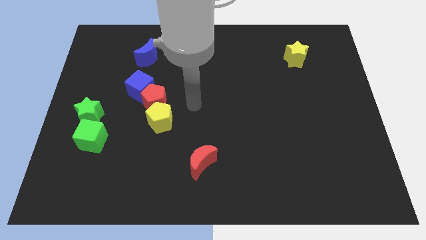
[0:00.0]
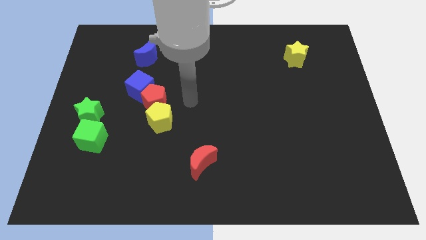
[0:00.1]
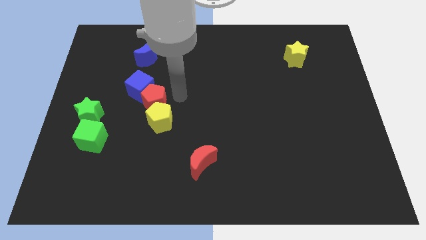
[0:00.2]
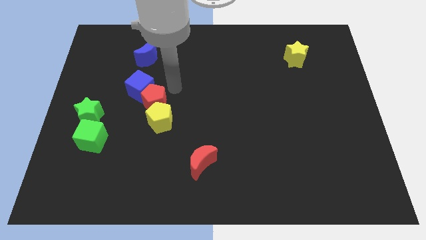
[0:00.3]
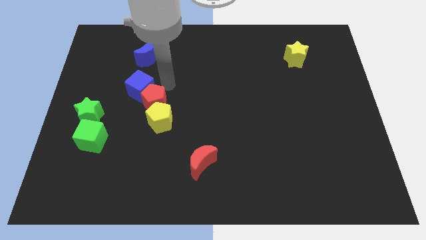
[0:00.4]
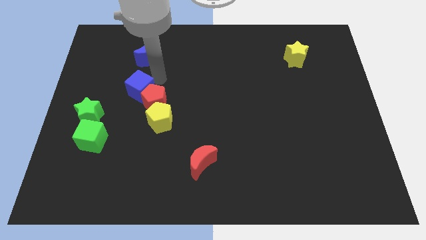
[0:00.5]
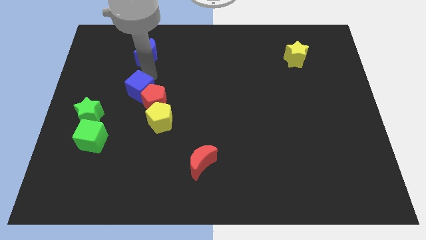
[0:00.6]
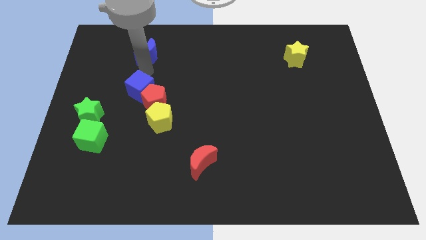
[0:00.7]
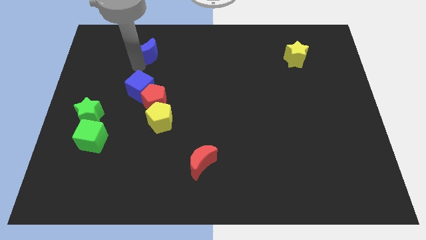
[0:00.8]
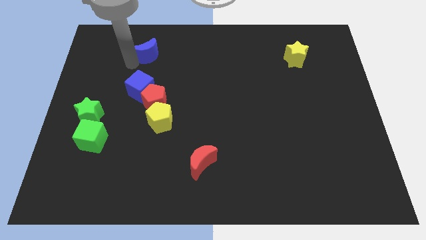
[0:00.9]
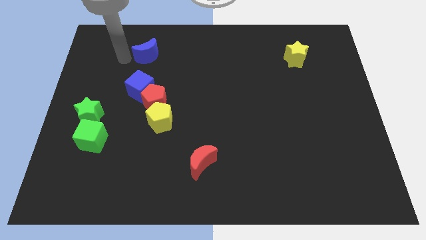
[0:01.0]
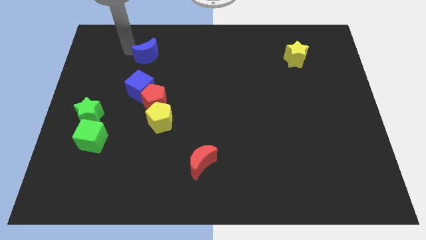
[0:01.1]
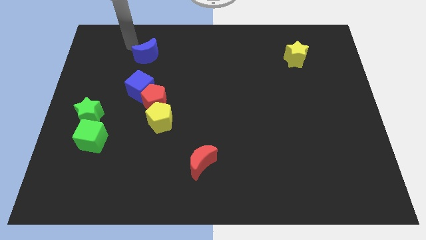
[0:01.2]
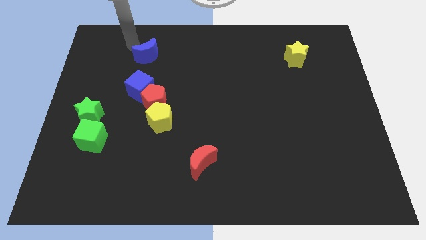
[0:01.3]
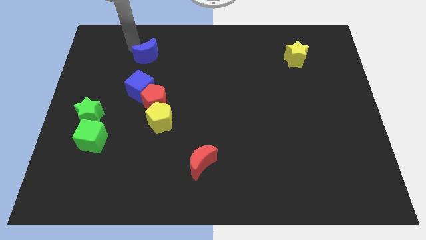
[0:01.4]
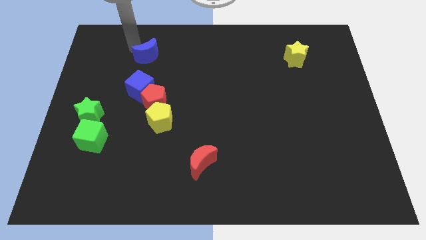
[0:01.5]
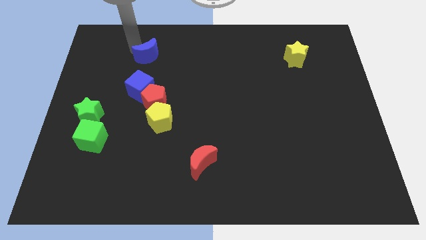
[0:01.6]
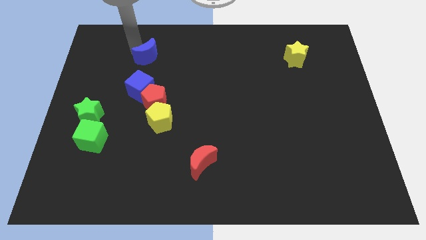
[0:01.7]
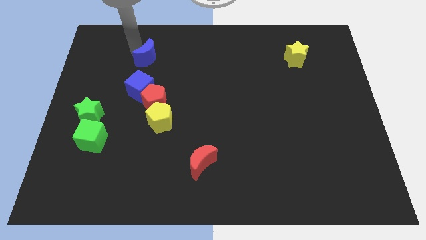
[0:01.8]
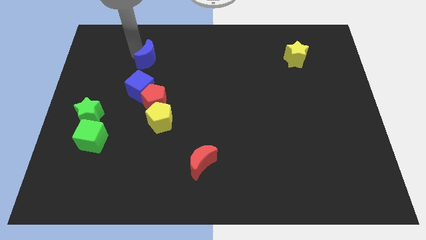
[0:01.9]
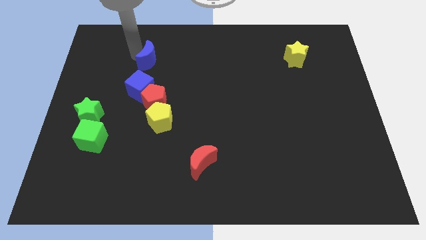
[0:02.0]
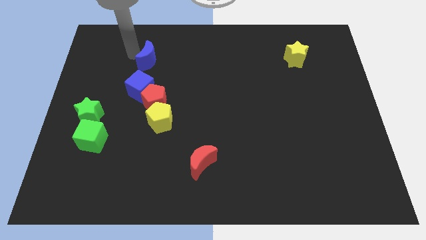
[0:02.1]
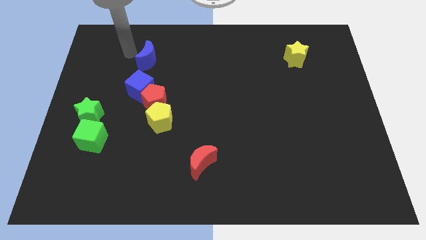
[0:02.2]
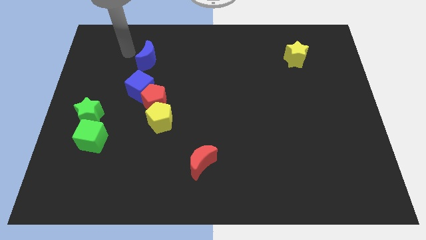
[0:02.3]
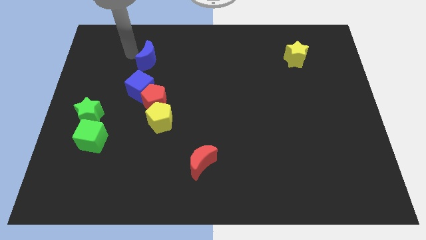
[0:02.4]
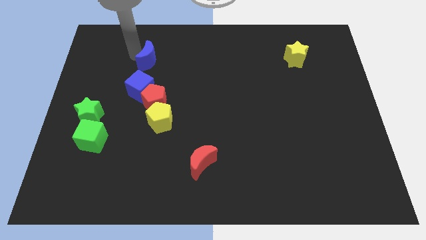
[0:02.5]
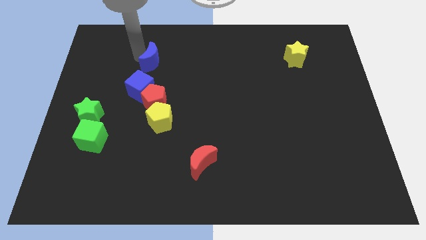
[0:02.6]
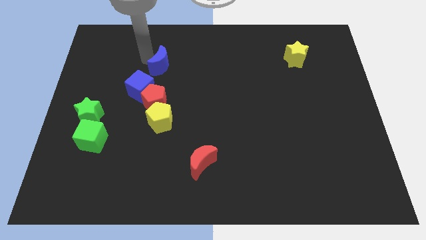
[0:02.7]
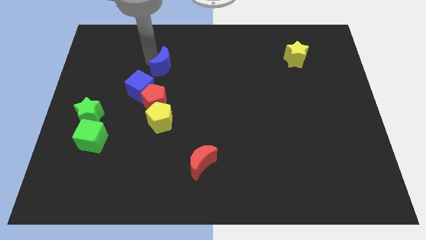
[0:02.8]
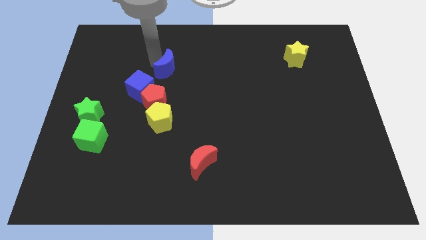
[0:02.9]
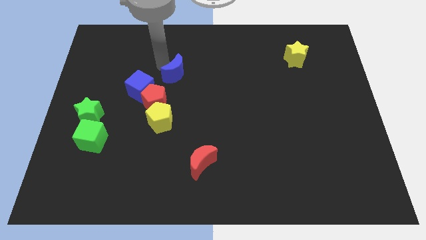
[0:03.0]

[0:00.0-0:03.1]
move the blue moon a bit diagonally down and right

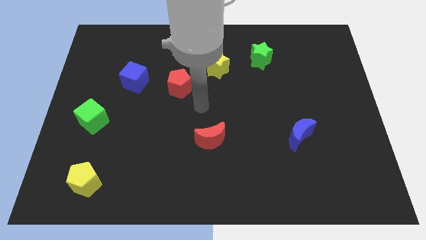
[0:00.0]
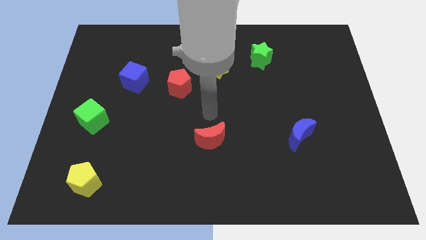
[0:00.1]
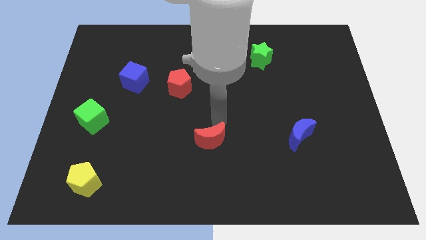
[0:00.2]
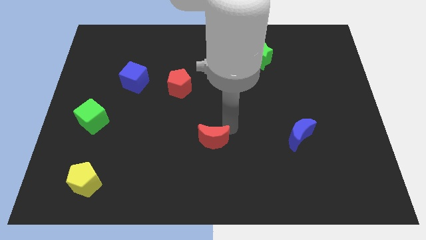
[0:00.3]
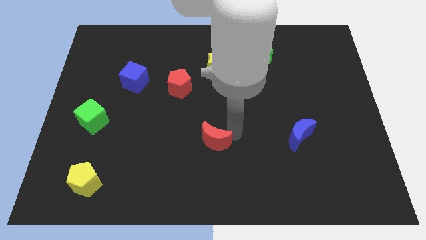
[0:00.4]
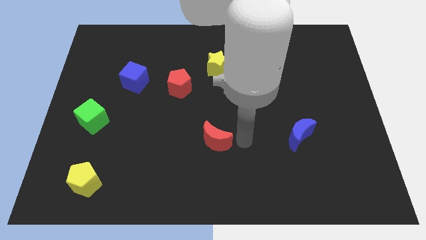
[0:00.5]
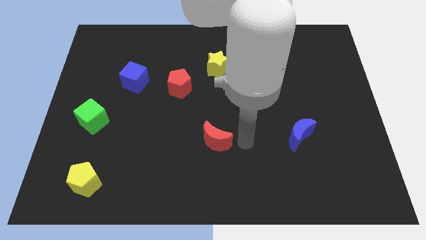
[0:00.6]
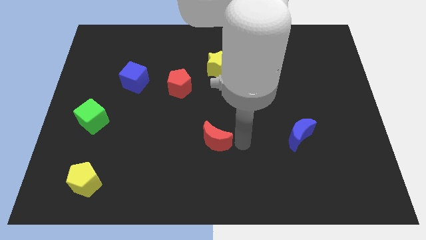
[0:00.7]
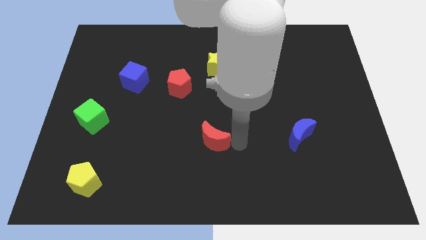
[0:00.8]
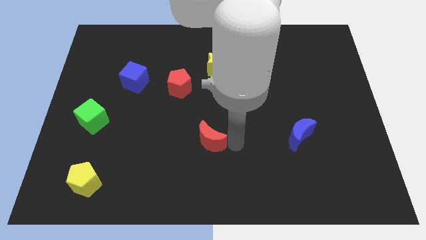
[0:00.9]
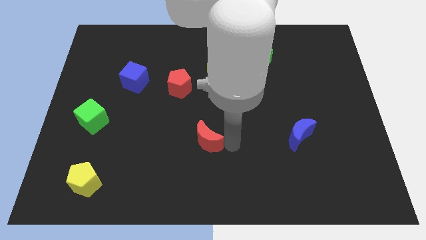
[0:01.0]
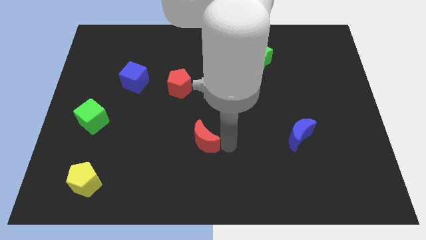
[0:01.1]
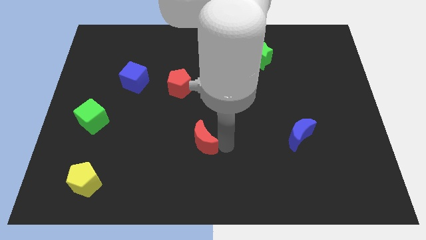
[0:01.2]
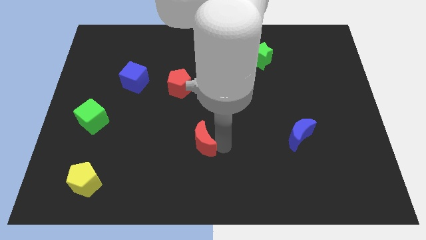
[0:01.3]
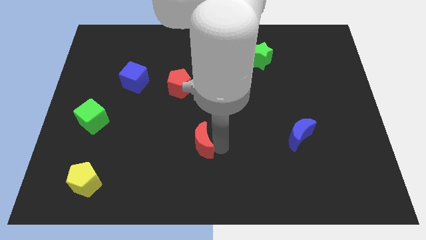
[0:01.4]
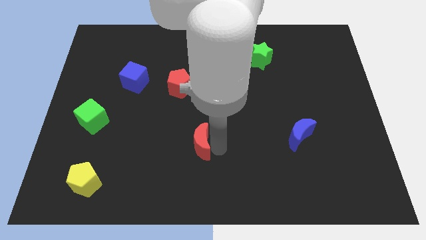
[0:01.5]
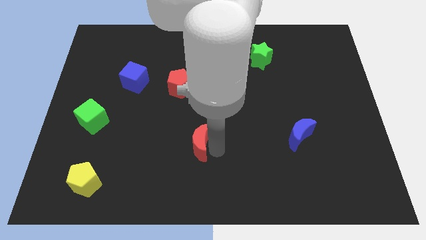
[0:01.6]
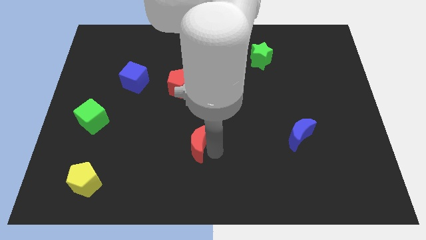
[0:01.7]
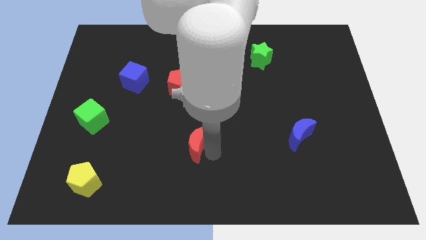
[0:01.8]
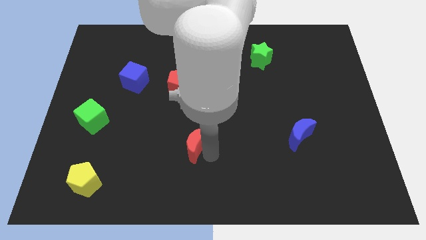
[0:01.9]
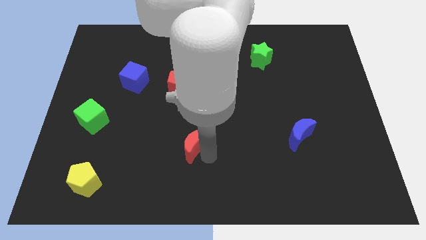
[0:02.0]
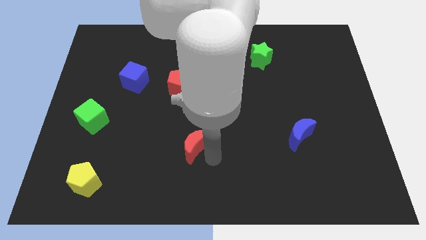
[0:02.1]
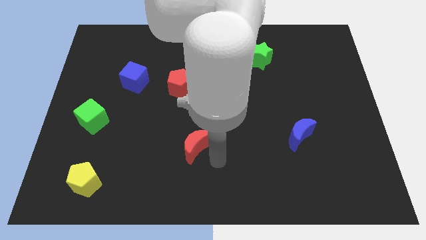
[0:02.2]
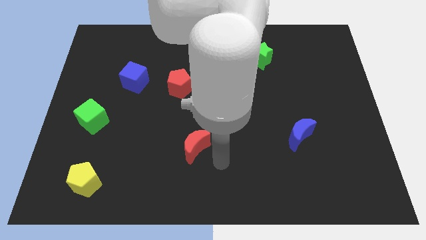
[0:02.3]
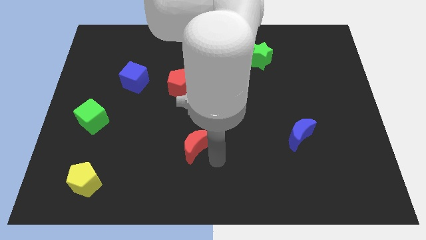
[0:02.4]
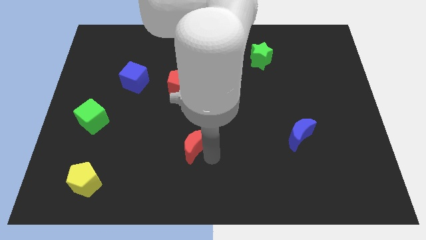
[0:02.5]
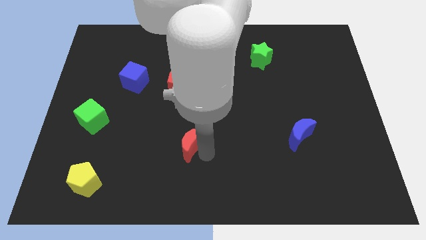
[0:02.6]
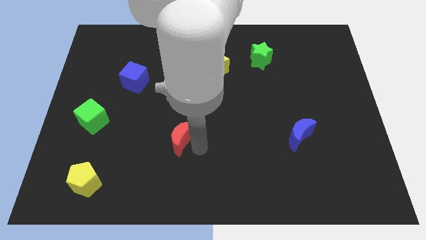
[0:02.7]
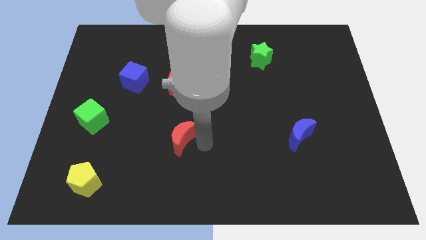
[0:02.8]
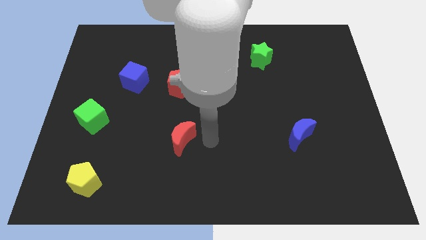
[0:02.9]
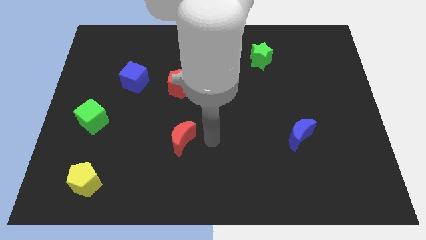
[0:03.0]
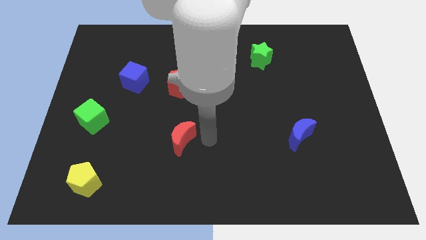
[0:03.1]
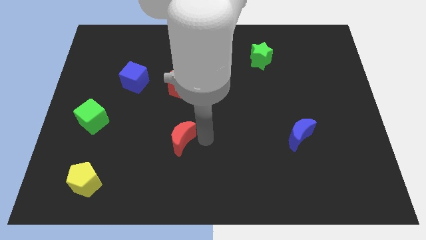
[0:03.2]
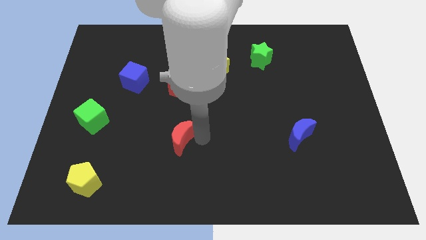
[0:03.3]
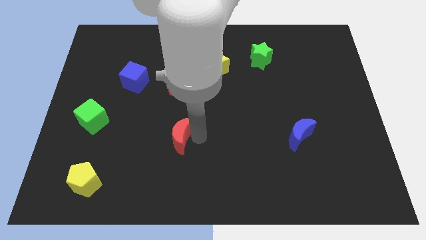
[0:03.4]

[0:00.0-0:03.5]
slide the red moon to the left somewhat

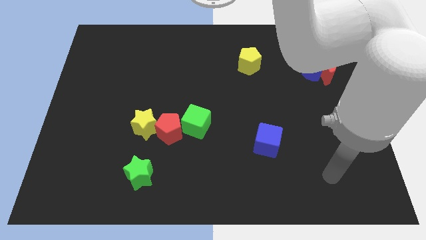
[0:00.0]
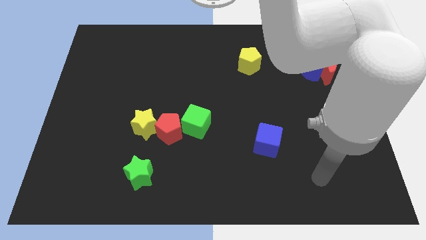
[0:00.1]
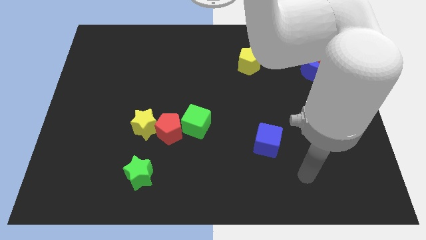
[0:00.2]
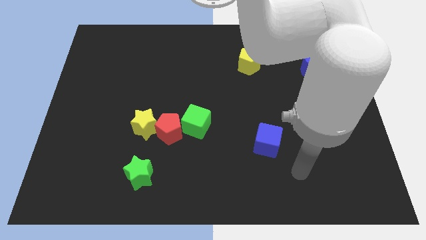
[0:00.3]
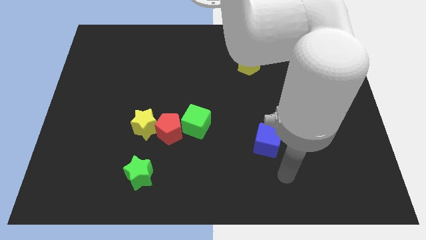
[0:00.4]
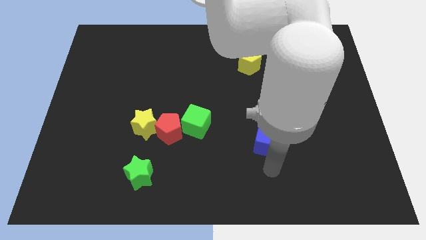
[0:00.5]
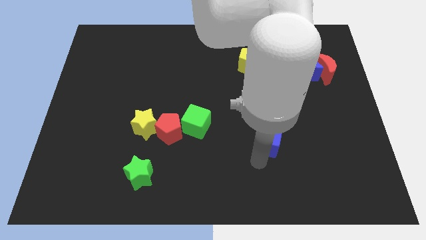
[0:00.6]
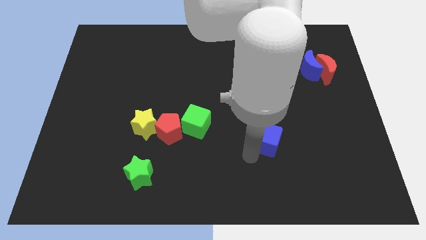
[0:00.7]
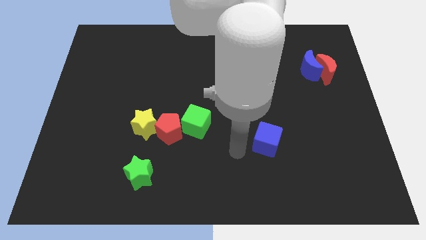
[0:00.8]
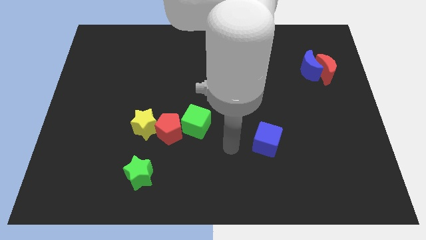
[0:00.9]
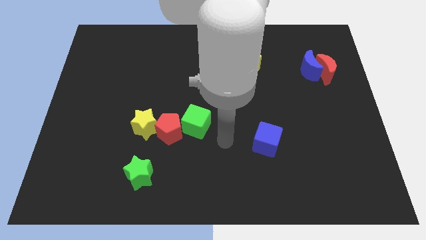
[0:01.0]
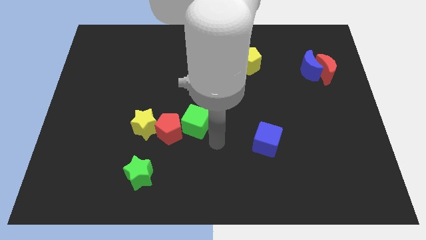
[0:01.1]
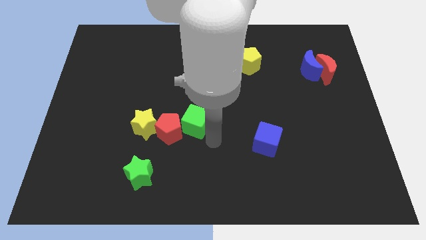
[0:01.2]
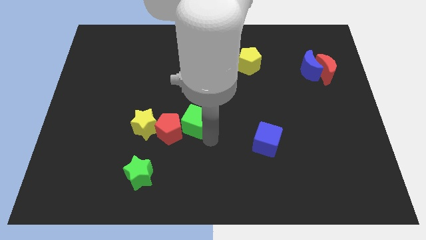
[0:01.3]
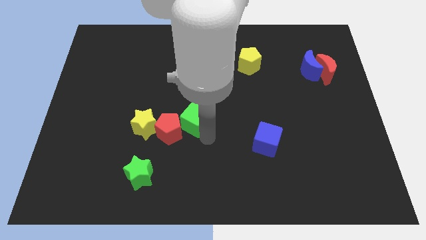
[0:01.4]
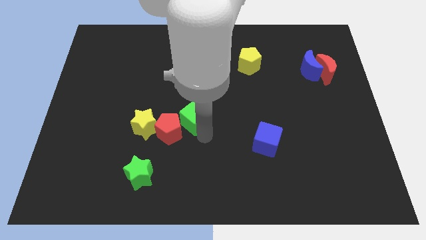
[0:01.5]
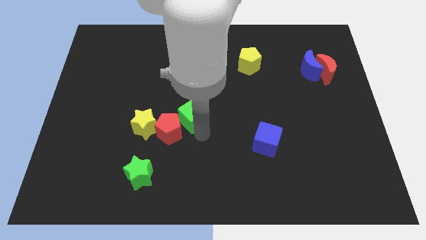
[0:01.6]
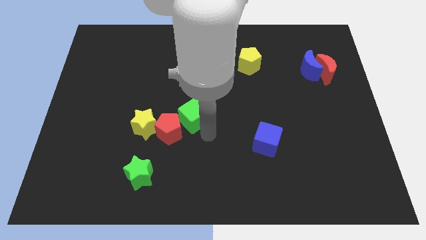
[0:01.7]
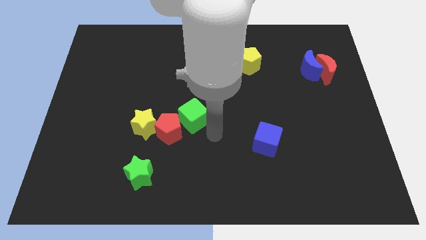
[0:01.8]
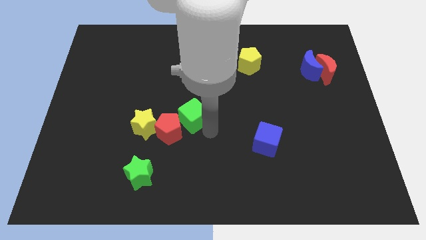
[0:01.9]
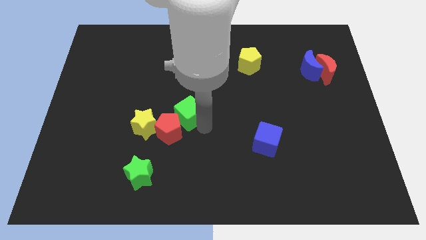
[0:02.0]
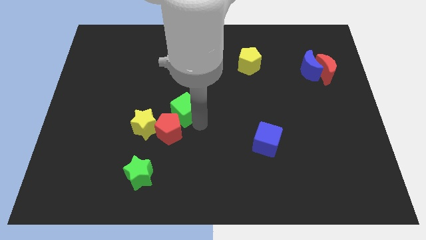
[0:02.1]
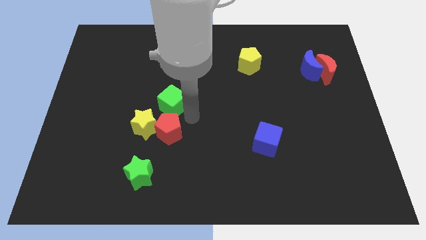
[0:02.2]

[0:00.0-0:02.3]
slightly move the green cube upwards and left
